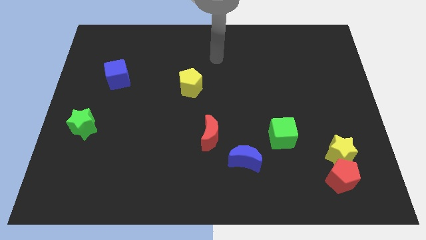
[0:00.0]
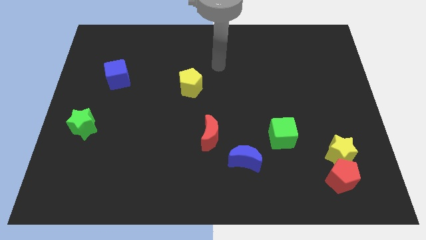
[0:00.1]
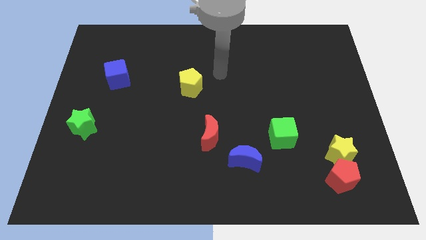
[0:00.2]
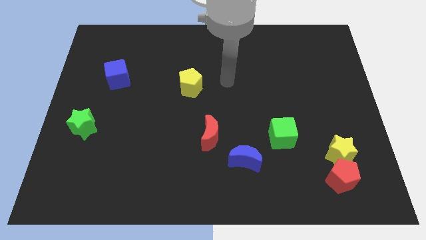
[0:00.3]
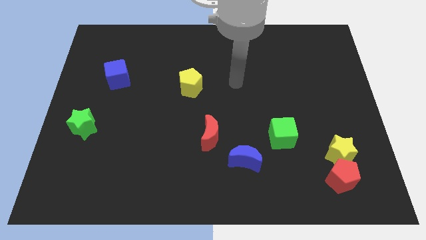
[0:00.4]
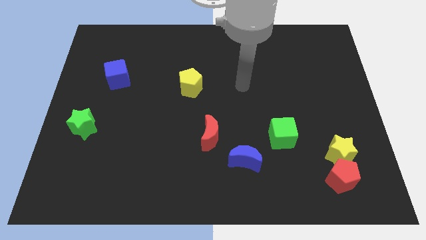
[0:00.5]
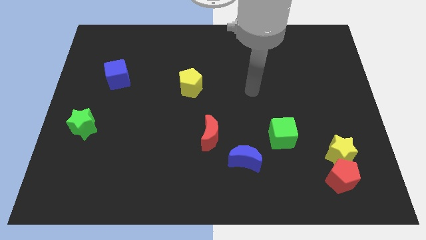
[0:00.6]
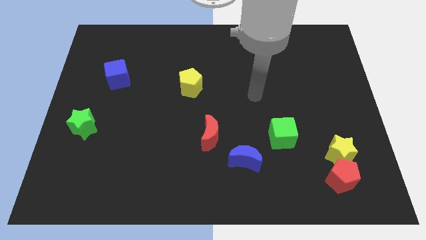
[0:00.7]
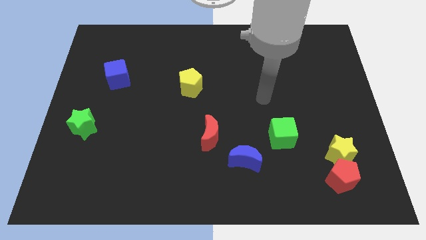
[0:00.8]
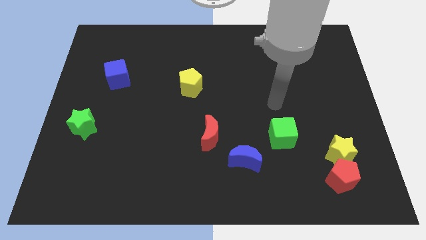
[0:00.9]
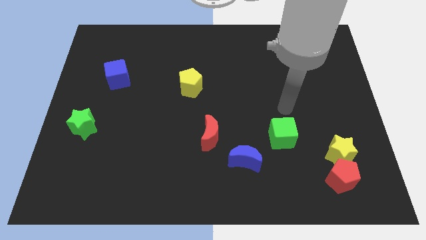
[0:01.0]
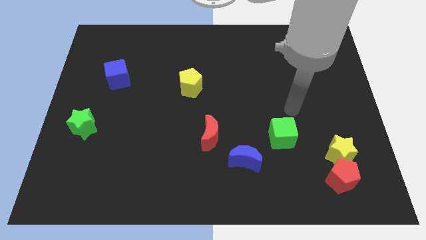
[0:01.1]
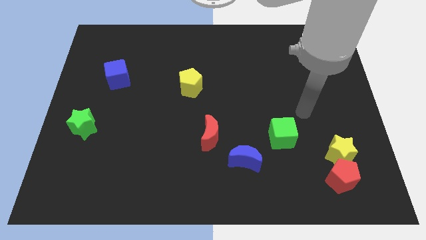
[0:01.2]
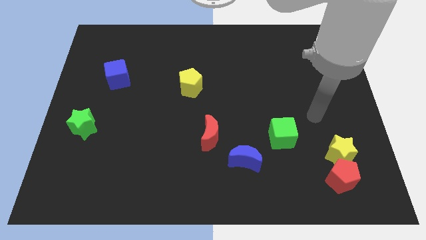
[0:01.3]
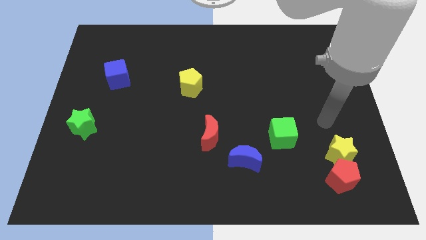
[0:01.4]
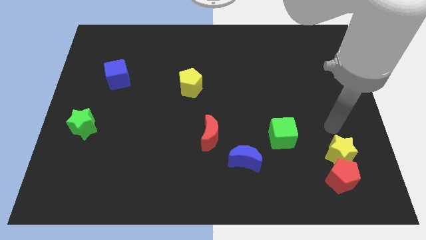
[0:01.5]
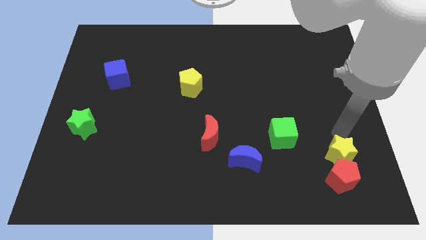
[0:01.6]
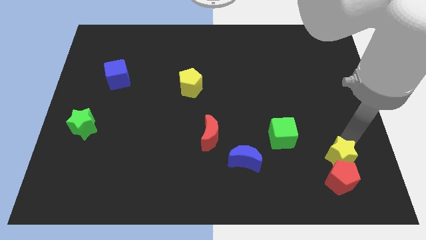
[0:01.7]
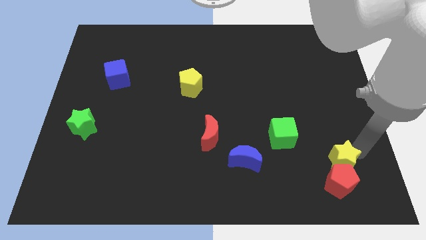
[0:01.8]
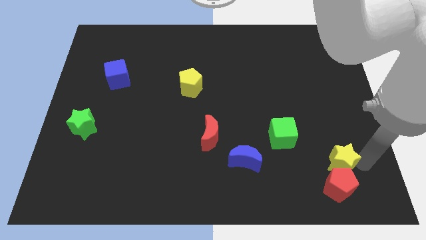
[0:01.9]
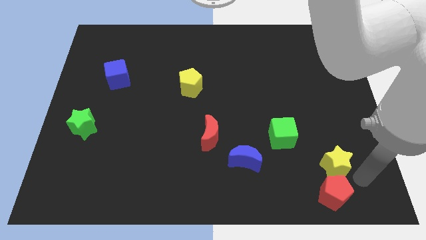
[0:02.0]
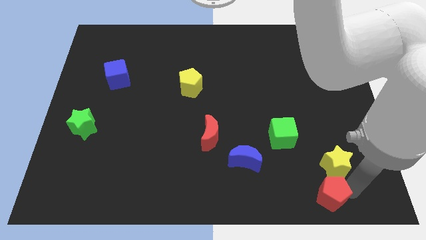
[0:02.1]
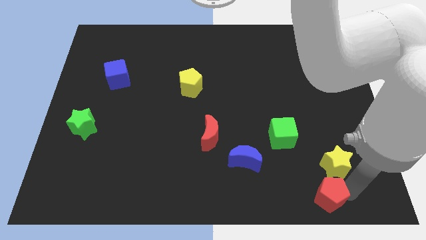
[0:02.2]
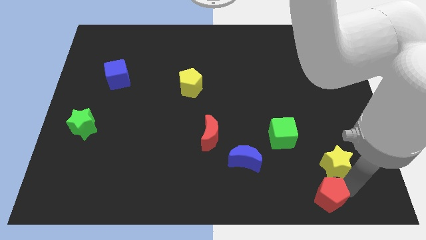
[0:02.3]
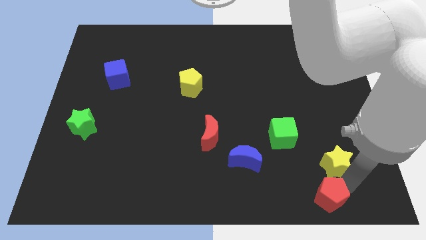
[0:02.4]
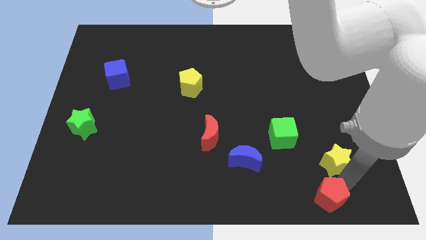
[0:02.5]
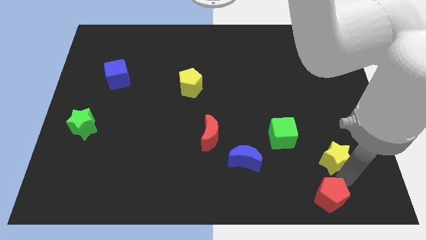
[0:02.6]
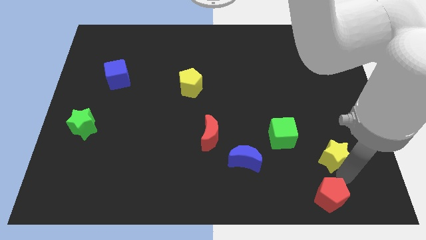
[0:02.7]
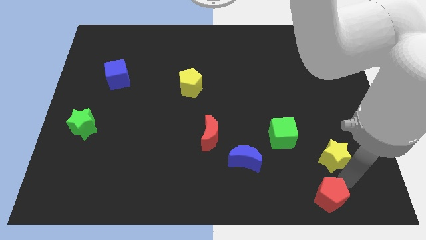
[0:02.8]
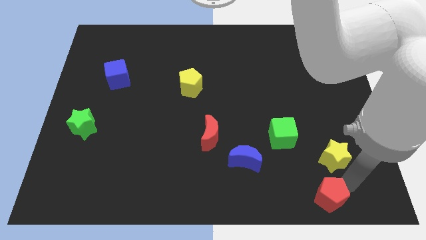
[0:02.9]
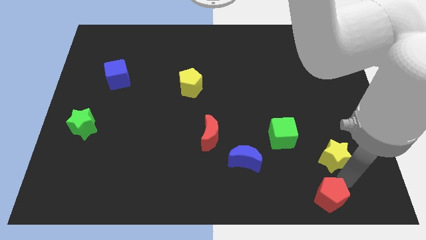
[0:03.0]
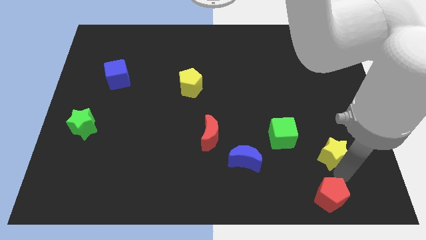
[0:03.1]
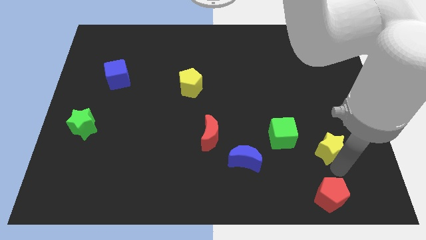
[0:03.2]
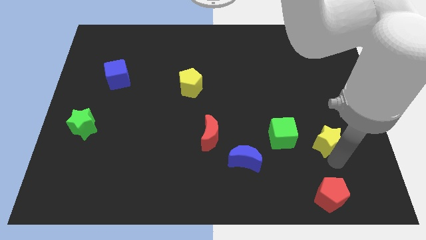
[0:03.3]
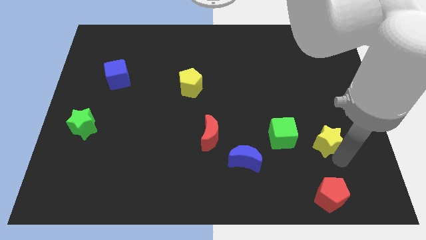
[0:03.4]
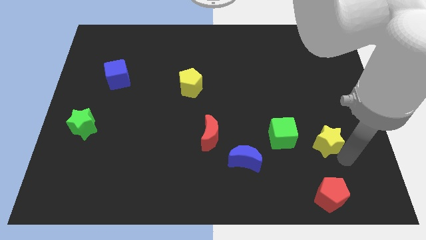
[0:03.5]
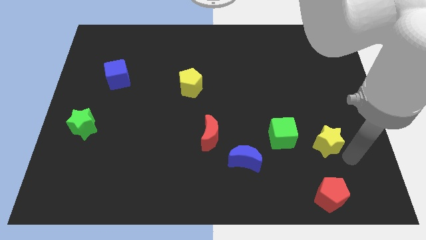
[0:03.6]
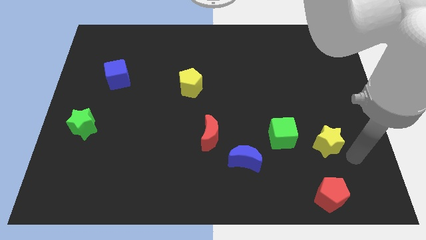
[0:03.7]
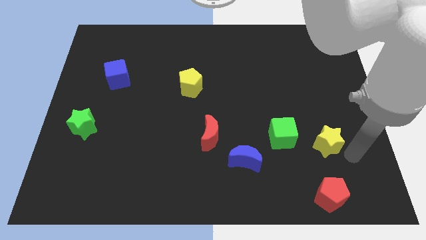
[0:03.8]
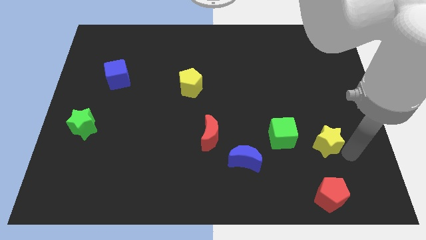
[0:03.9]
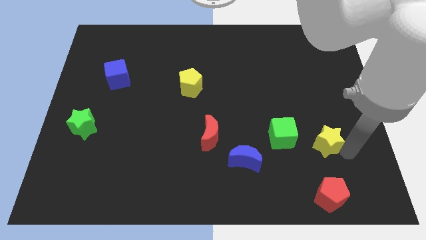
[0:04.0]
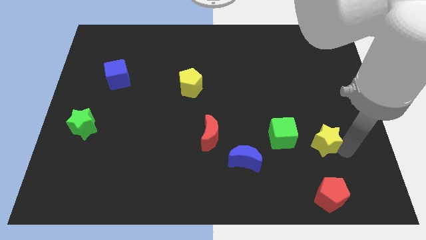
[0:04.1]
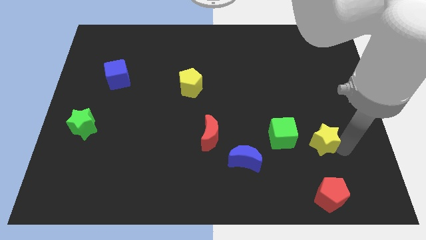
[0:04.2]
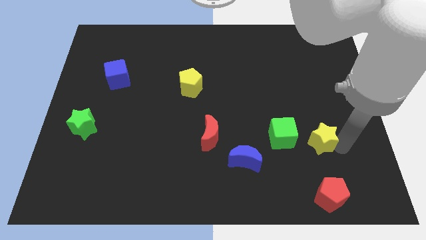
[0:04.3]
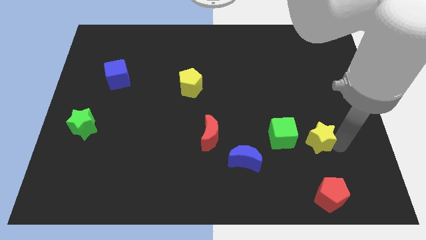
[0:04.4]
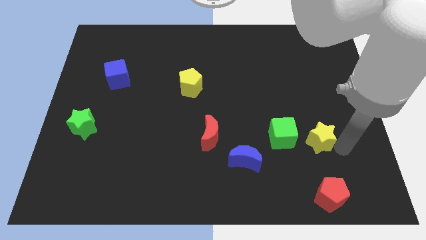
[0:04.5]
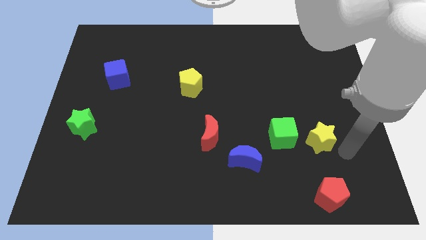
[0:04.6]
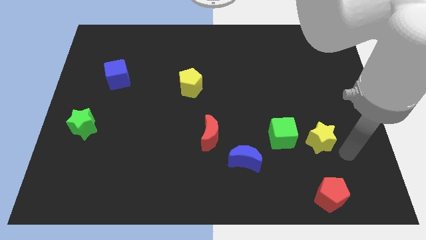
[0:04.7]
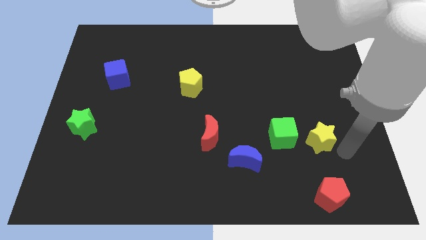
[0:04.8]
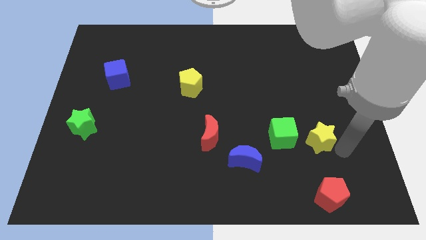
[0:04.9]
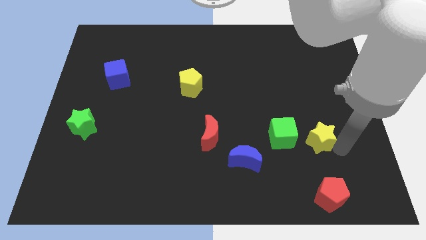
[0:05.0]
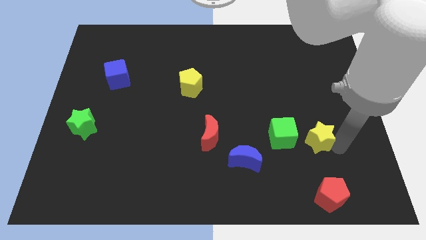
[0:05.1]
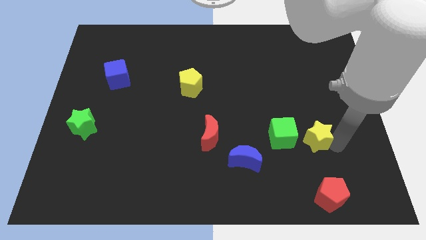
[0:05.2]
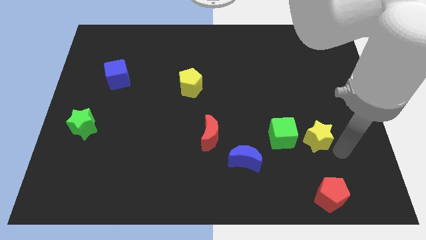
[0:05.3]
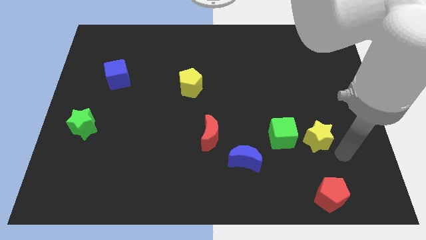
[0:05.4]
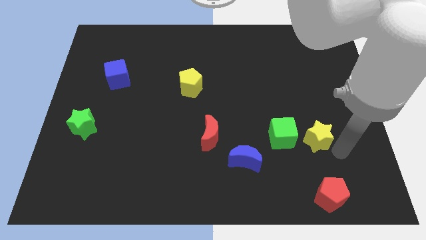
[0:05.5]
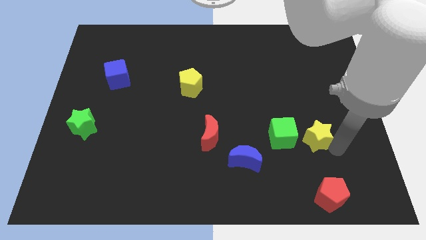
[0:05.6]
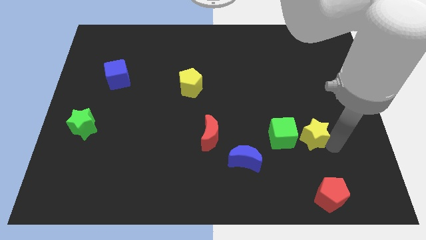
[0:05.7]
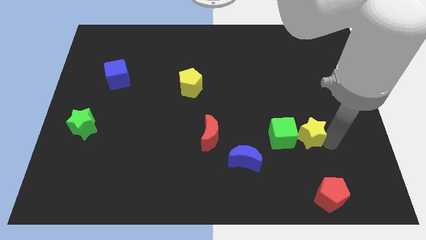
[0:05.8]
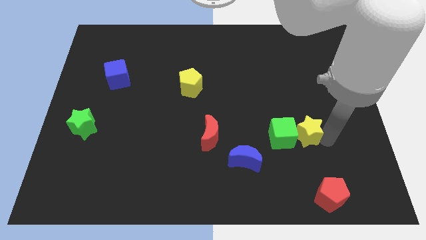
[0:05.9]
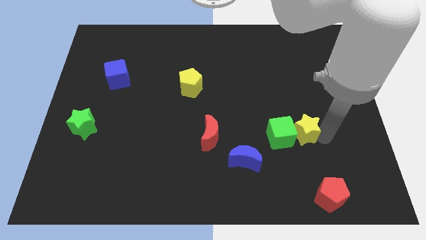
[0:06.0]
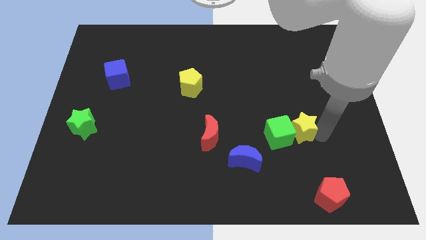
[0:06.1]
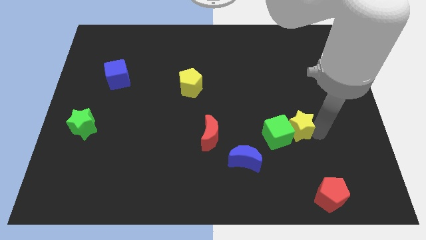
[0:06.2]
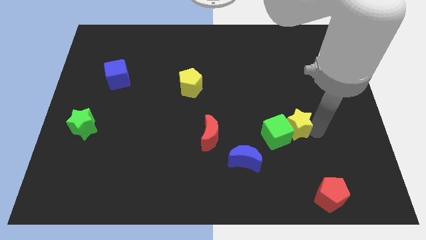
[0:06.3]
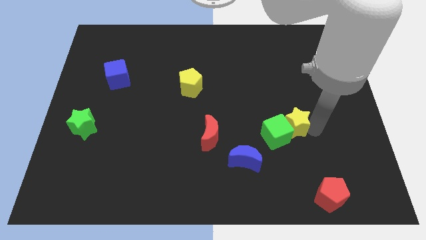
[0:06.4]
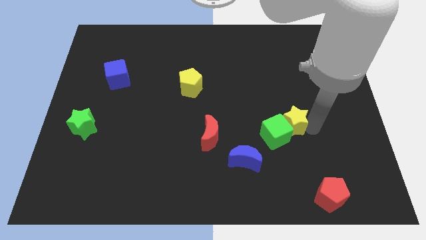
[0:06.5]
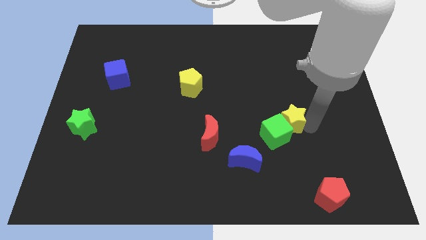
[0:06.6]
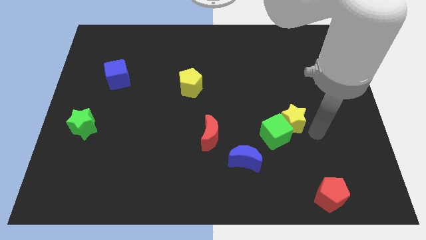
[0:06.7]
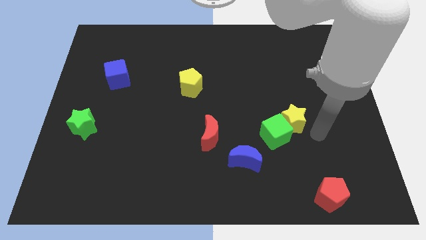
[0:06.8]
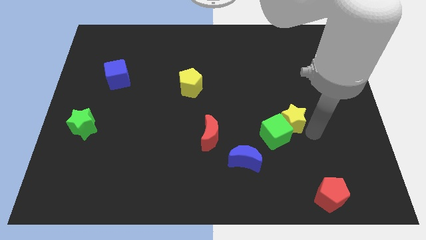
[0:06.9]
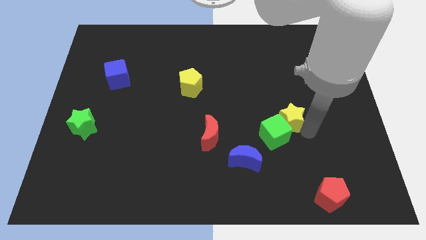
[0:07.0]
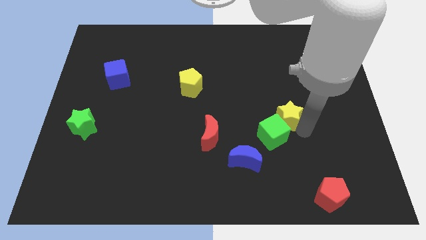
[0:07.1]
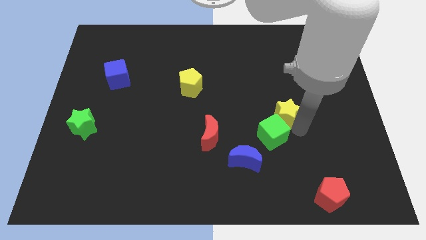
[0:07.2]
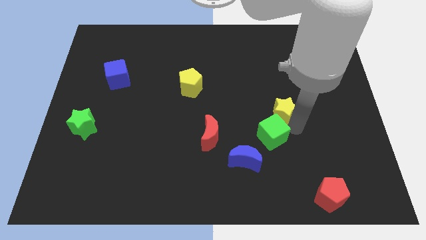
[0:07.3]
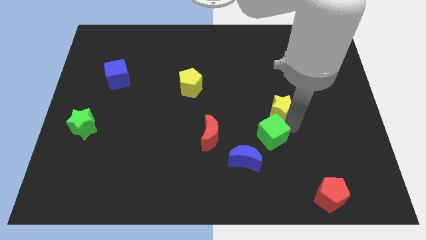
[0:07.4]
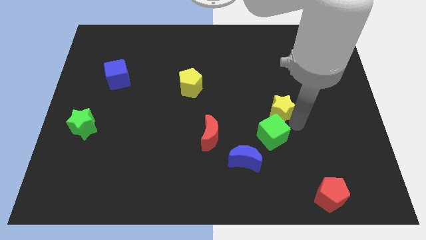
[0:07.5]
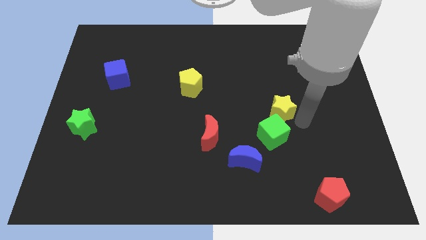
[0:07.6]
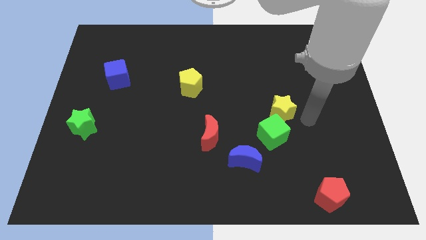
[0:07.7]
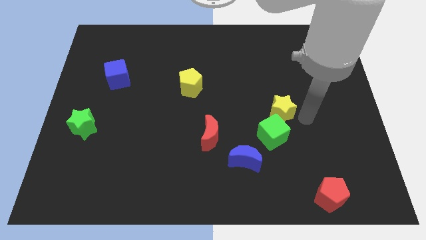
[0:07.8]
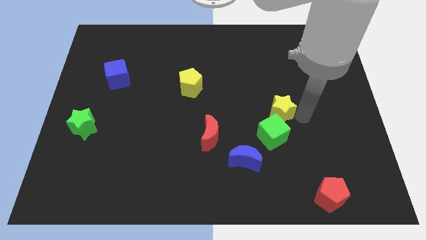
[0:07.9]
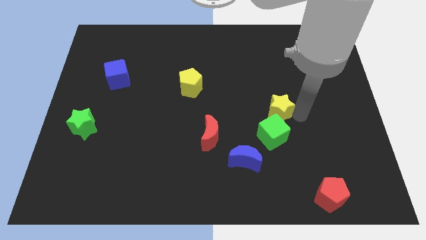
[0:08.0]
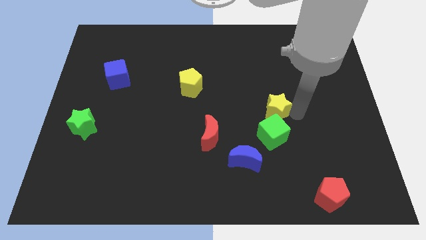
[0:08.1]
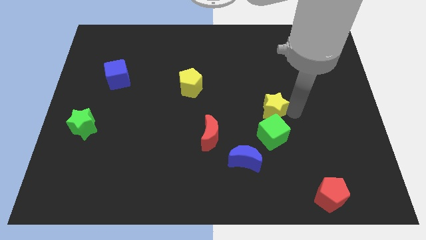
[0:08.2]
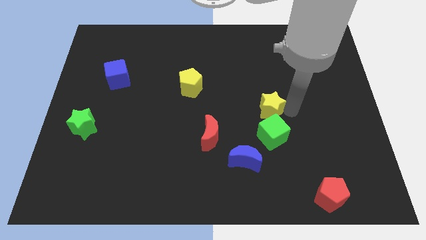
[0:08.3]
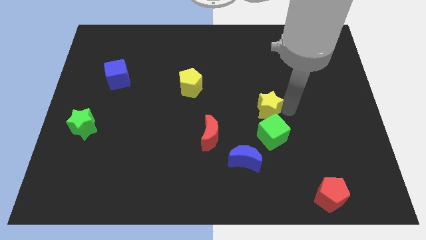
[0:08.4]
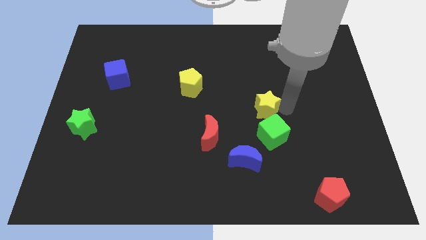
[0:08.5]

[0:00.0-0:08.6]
put the yellow star to the center of the board
